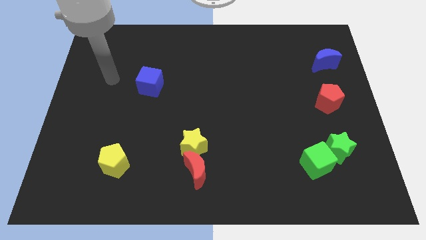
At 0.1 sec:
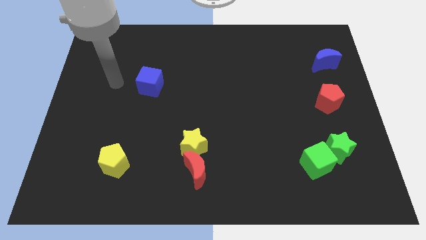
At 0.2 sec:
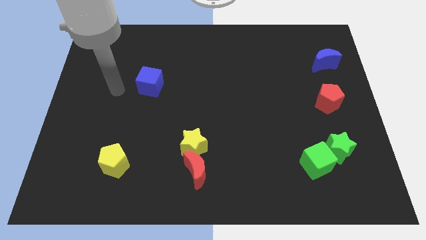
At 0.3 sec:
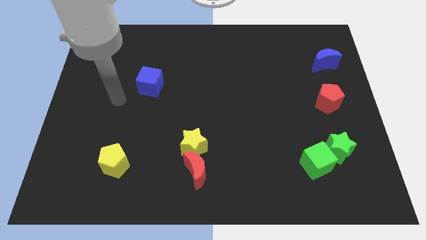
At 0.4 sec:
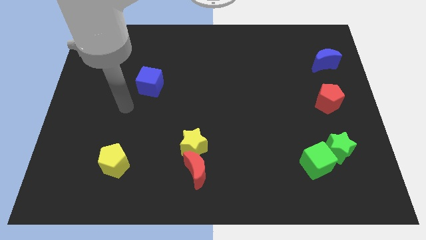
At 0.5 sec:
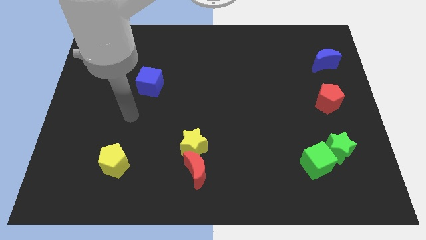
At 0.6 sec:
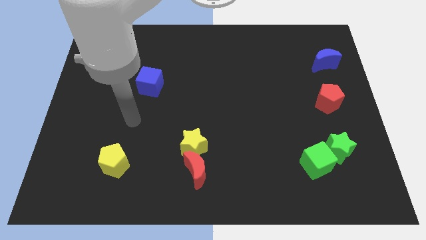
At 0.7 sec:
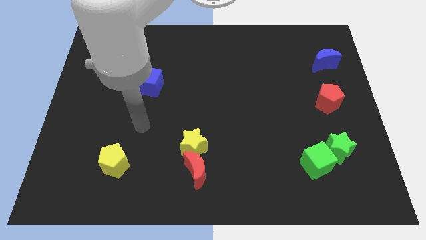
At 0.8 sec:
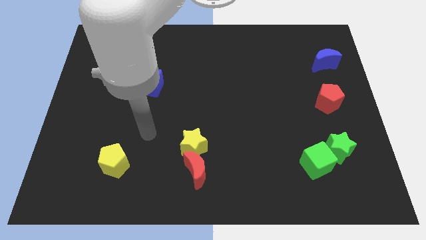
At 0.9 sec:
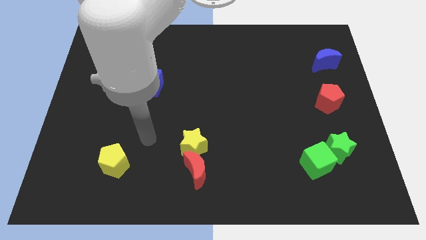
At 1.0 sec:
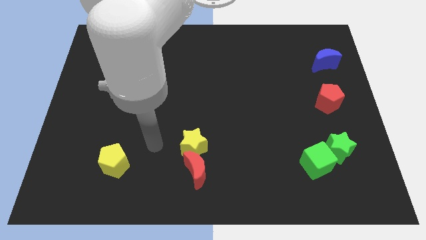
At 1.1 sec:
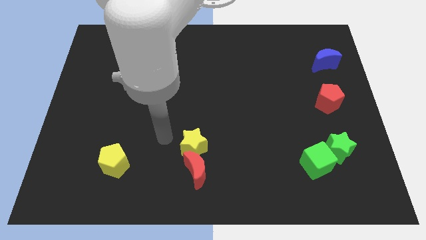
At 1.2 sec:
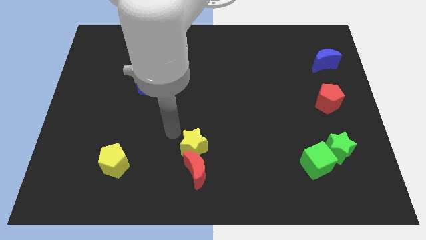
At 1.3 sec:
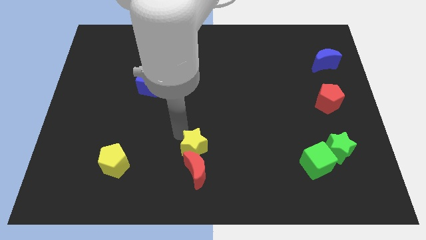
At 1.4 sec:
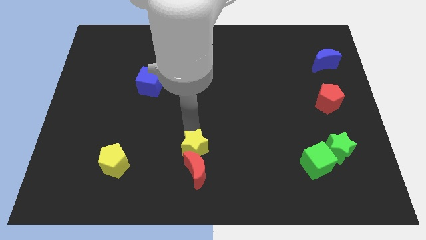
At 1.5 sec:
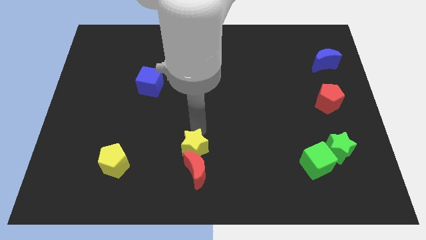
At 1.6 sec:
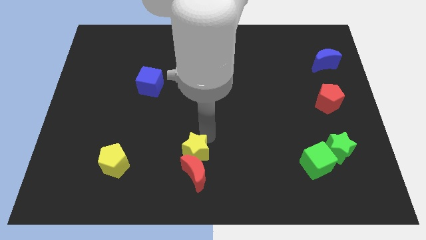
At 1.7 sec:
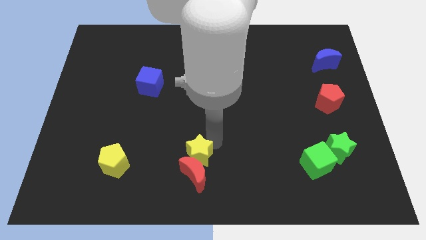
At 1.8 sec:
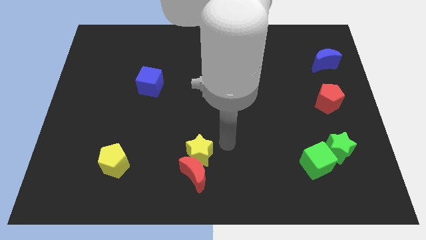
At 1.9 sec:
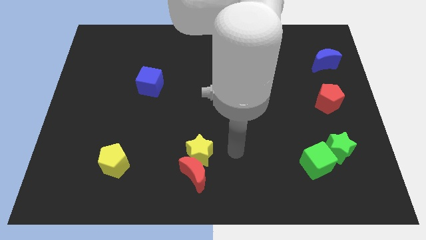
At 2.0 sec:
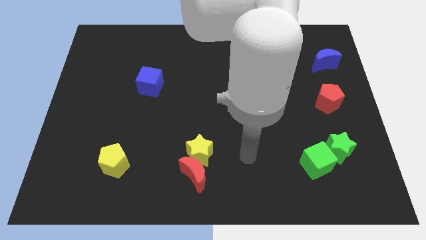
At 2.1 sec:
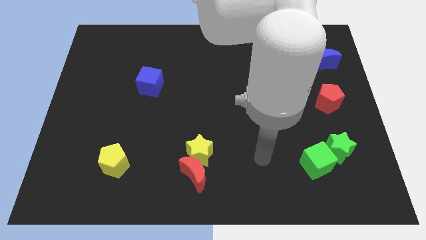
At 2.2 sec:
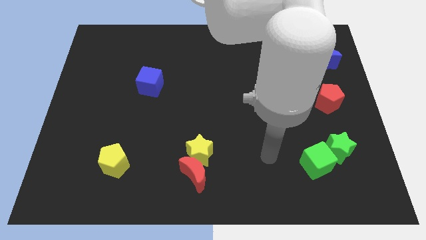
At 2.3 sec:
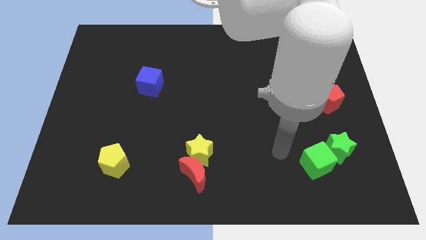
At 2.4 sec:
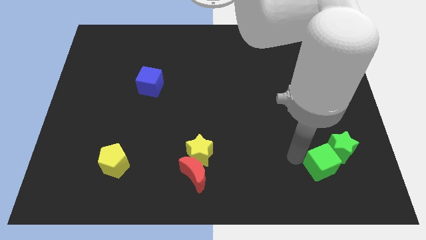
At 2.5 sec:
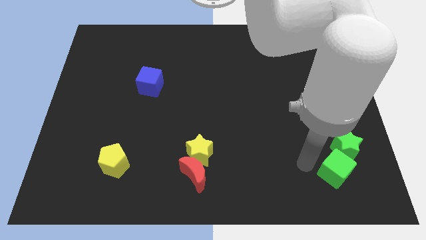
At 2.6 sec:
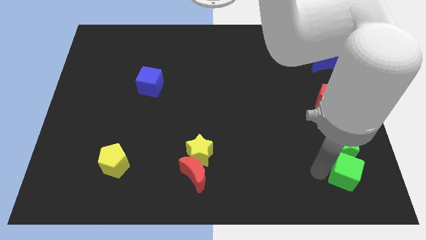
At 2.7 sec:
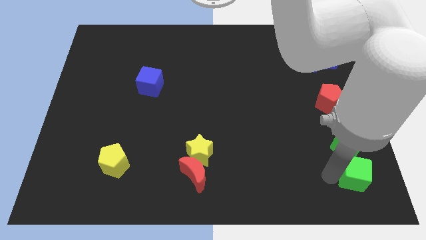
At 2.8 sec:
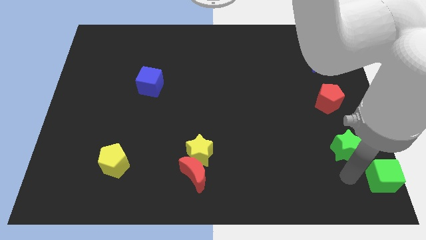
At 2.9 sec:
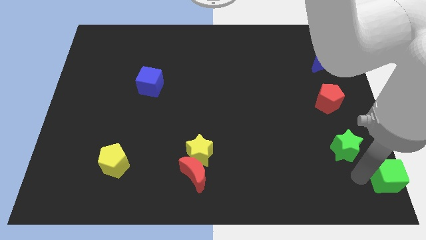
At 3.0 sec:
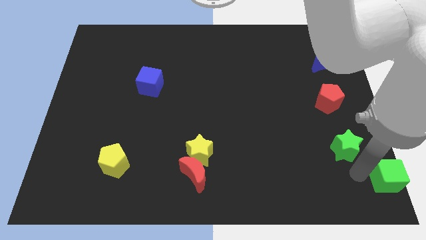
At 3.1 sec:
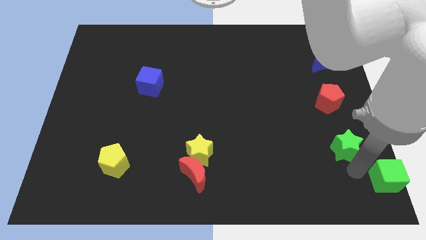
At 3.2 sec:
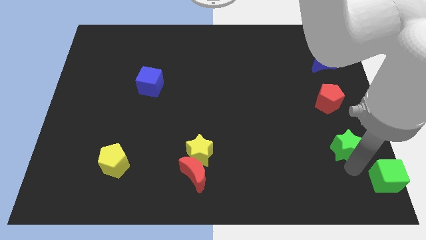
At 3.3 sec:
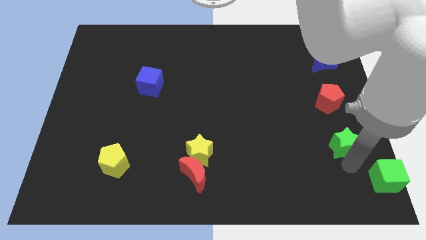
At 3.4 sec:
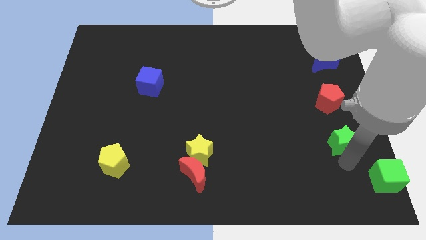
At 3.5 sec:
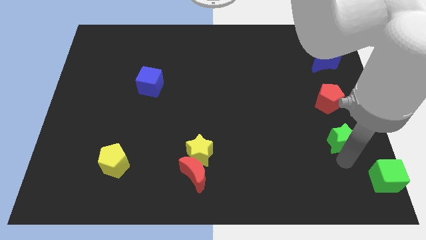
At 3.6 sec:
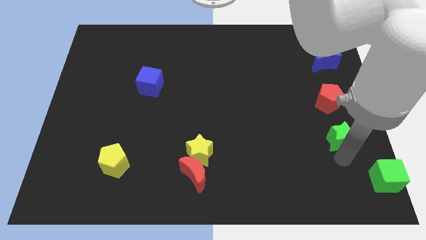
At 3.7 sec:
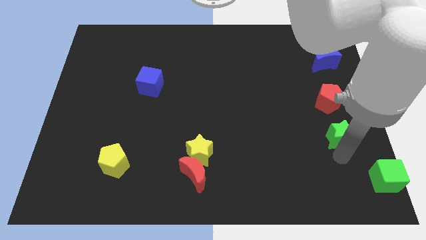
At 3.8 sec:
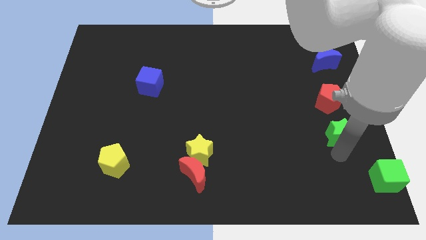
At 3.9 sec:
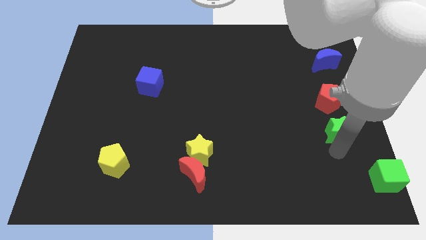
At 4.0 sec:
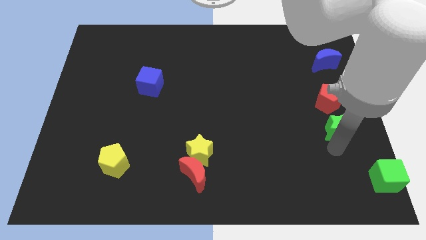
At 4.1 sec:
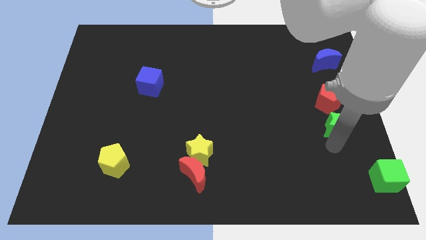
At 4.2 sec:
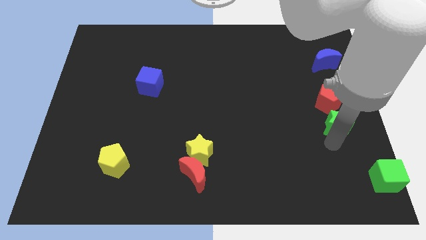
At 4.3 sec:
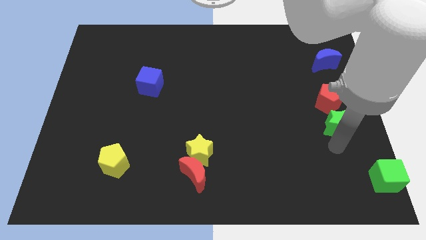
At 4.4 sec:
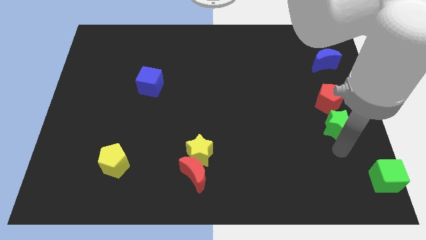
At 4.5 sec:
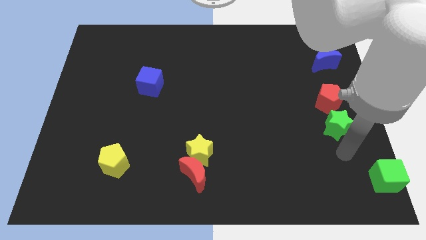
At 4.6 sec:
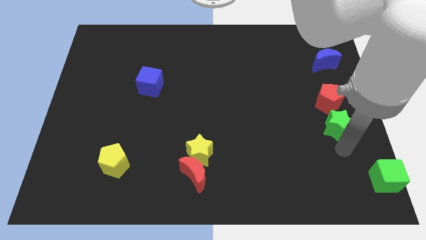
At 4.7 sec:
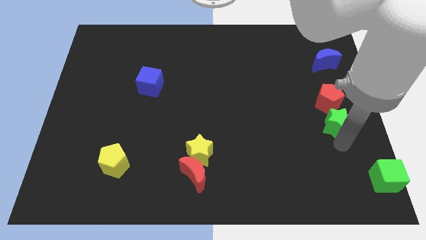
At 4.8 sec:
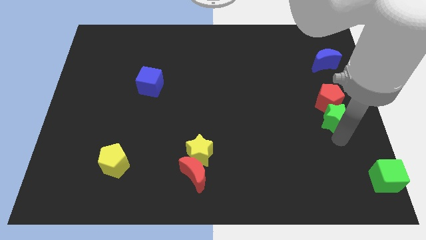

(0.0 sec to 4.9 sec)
push the green star towards the red pentagon

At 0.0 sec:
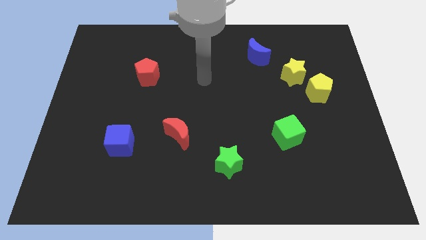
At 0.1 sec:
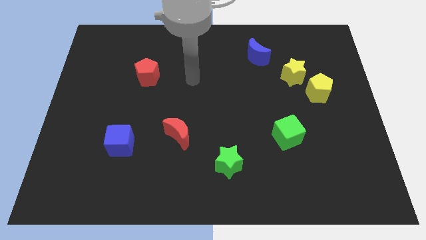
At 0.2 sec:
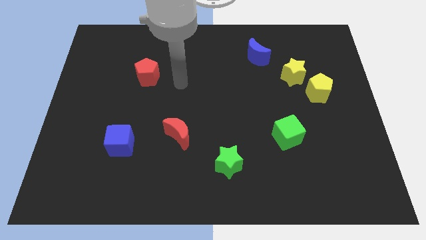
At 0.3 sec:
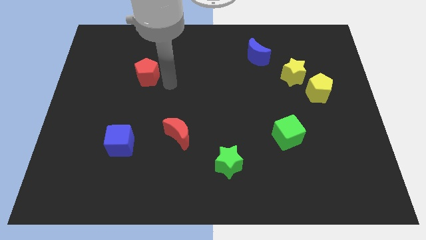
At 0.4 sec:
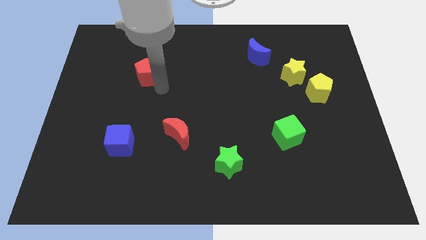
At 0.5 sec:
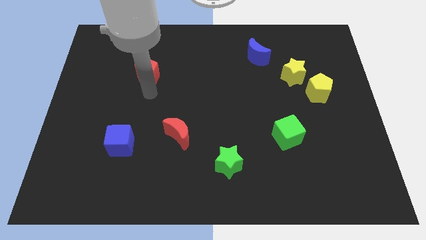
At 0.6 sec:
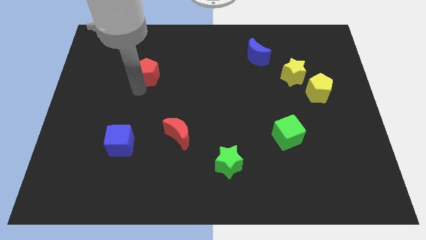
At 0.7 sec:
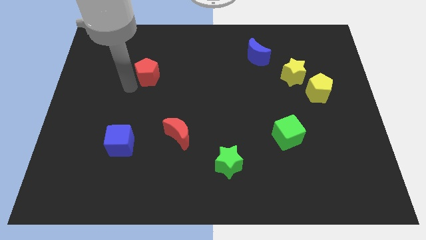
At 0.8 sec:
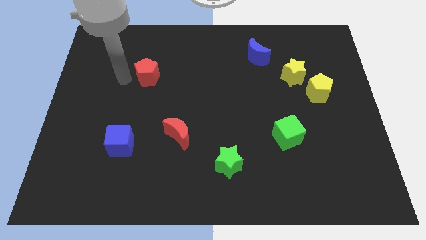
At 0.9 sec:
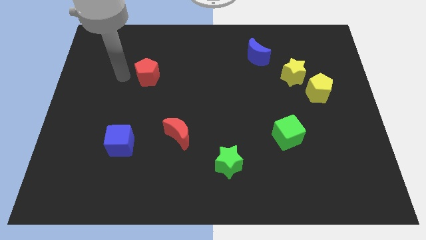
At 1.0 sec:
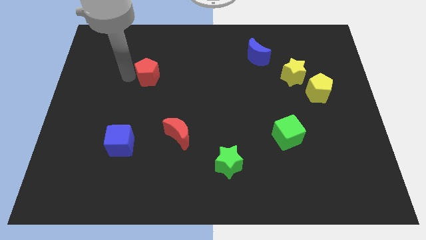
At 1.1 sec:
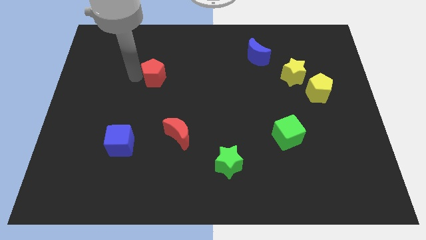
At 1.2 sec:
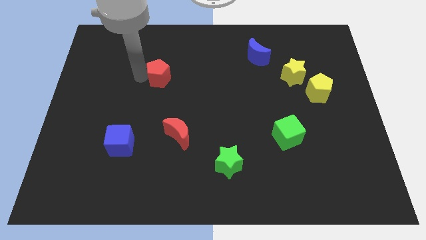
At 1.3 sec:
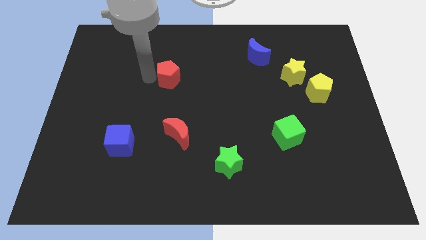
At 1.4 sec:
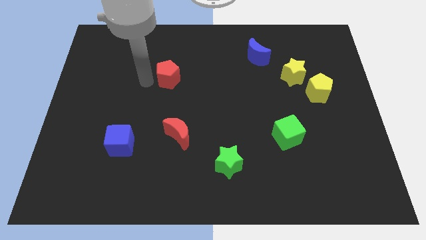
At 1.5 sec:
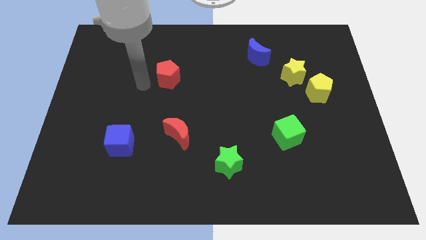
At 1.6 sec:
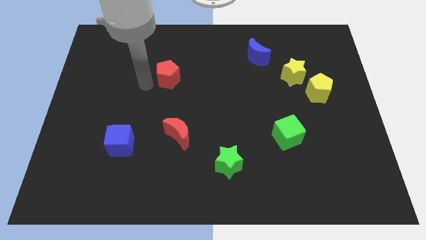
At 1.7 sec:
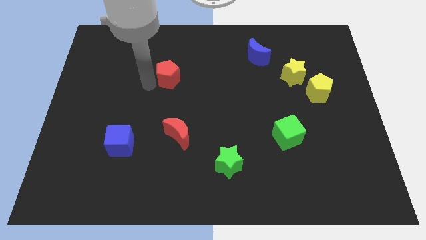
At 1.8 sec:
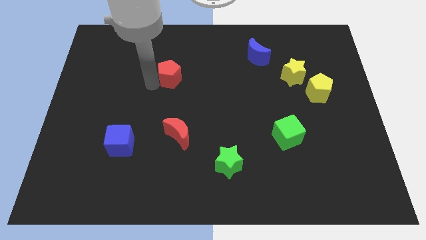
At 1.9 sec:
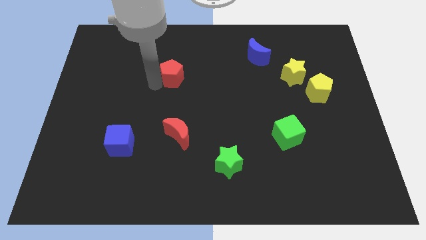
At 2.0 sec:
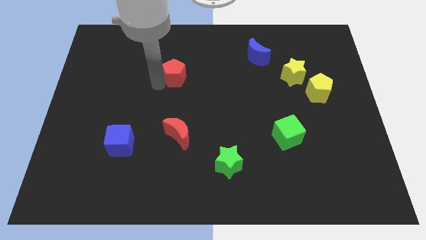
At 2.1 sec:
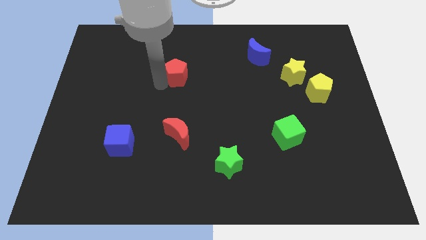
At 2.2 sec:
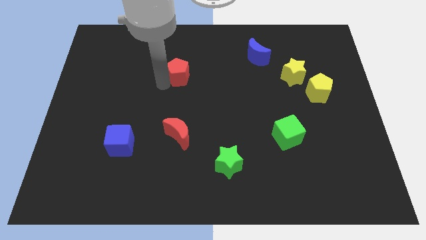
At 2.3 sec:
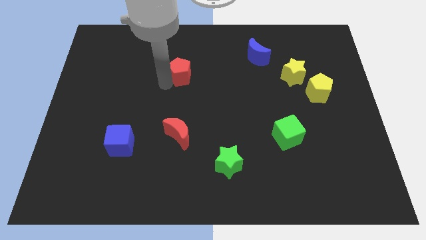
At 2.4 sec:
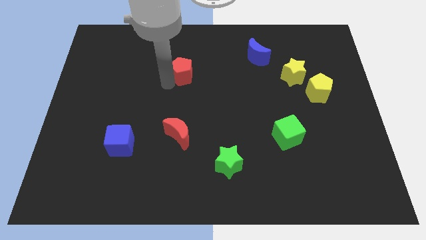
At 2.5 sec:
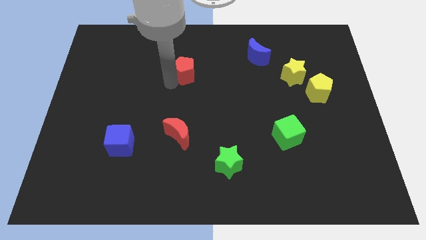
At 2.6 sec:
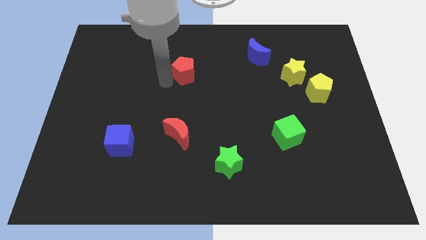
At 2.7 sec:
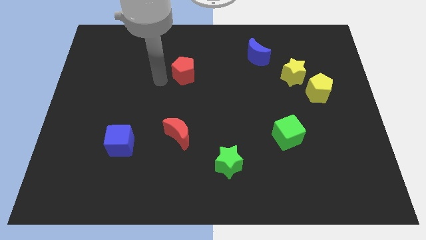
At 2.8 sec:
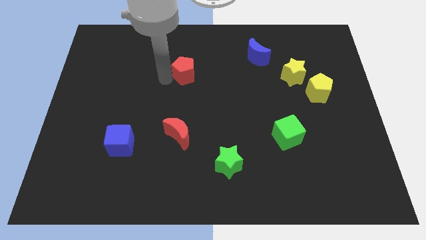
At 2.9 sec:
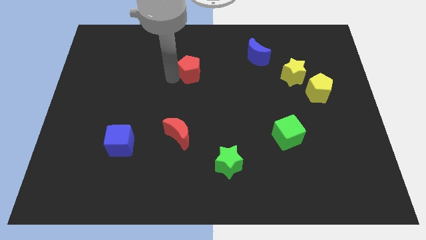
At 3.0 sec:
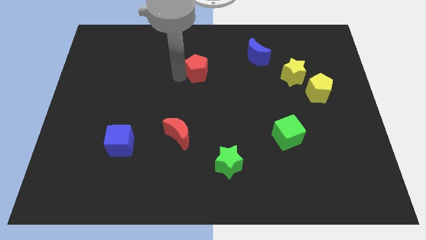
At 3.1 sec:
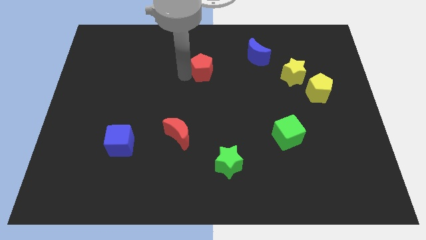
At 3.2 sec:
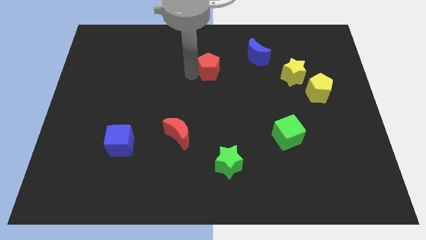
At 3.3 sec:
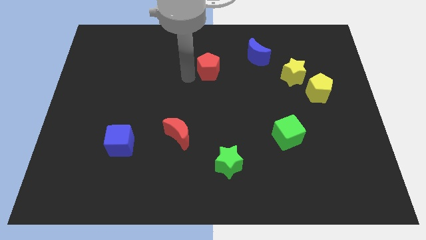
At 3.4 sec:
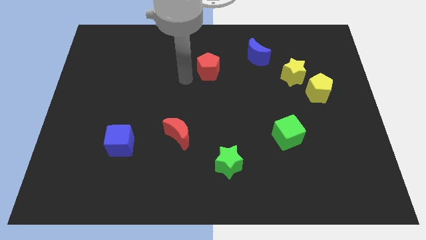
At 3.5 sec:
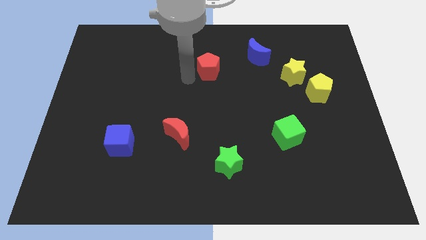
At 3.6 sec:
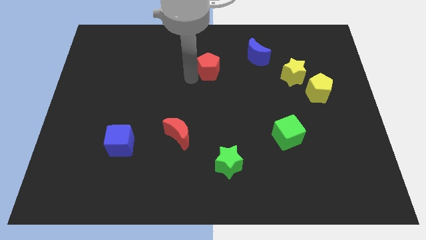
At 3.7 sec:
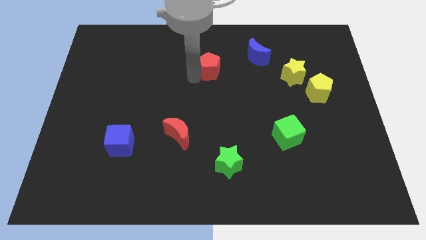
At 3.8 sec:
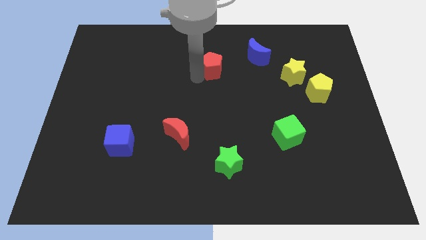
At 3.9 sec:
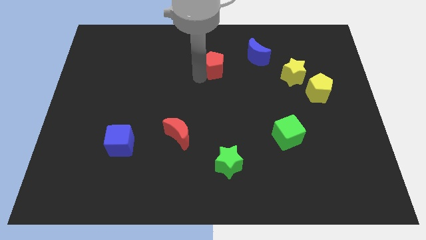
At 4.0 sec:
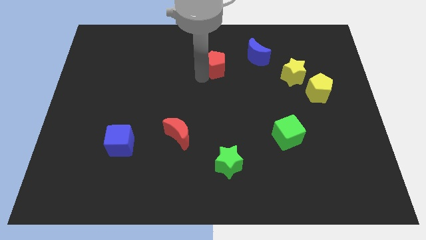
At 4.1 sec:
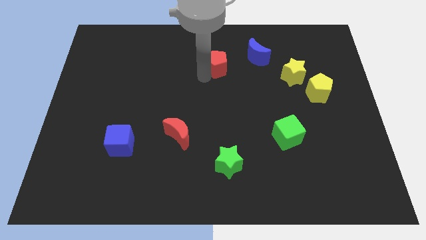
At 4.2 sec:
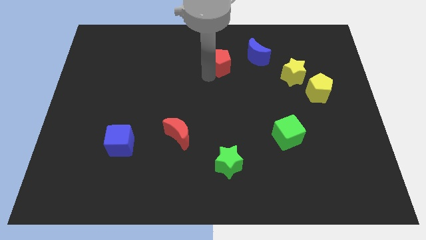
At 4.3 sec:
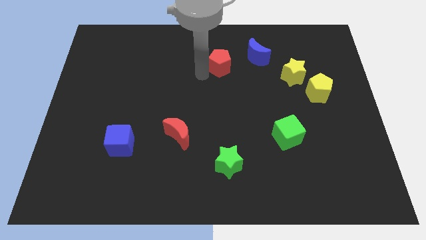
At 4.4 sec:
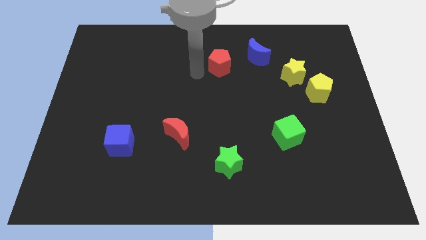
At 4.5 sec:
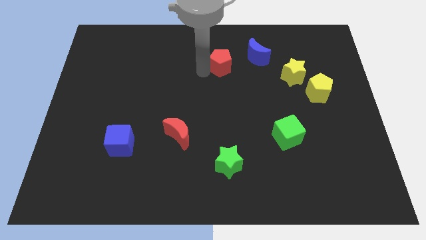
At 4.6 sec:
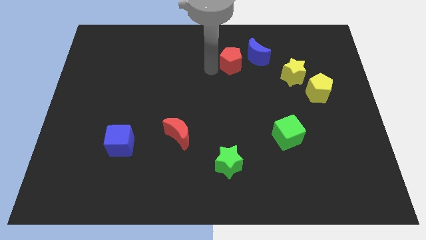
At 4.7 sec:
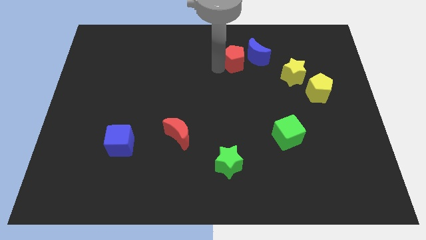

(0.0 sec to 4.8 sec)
put the red pentagon close to the blue moon
